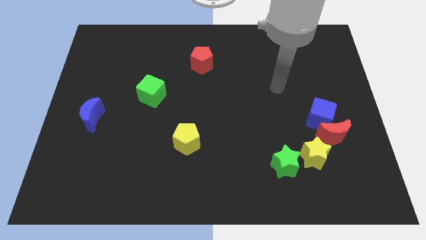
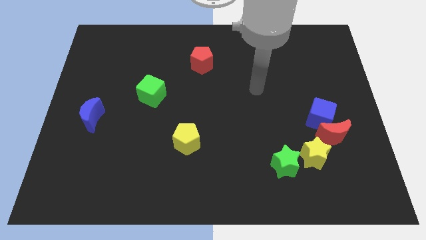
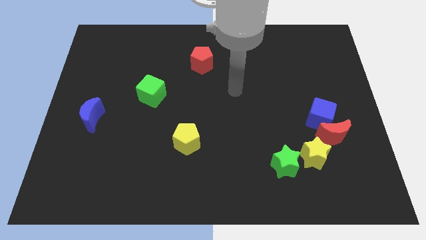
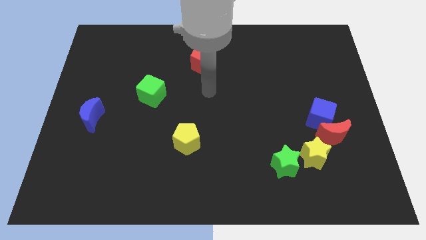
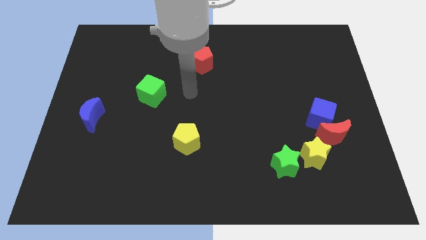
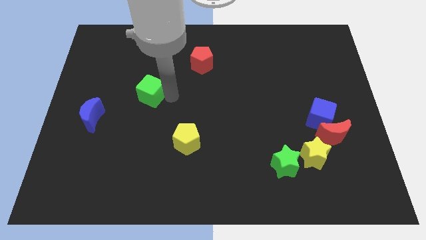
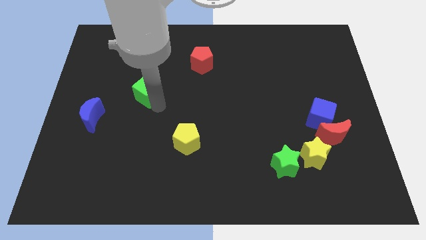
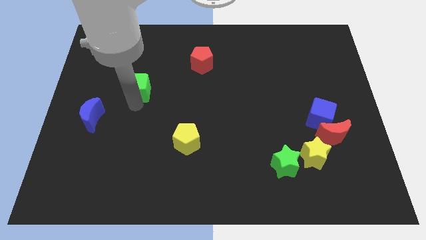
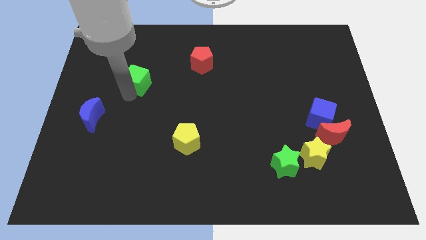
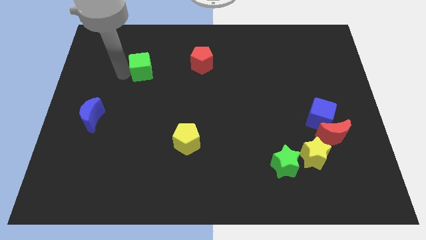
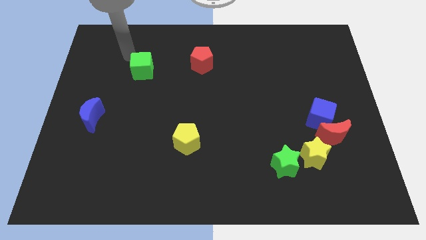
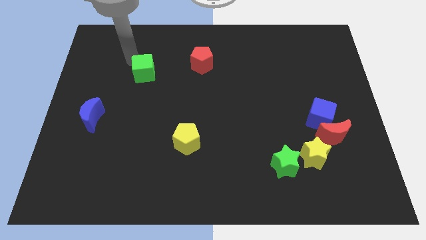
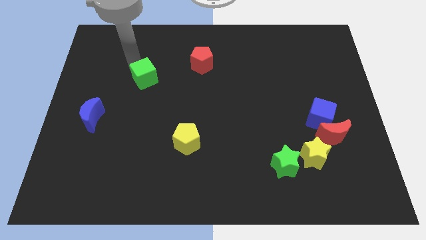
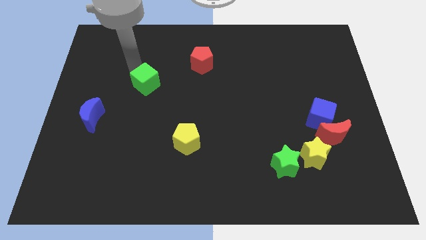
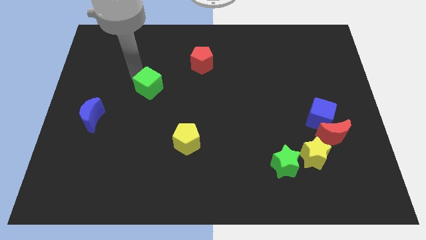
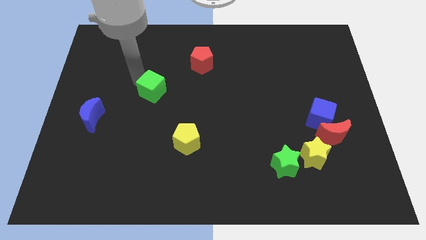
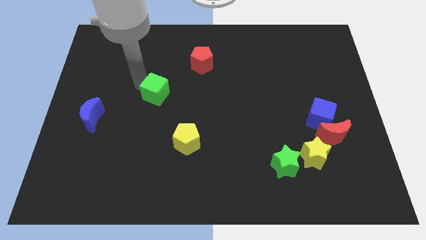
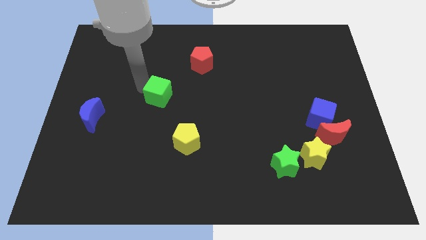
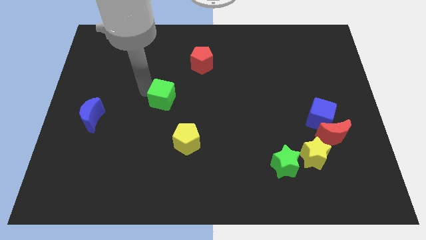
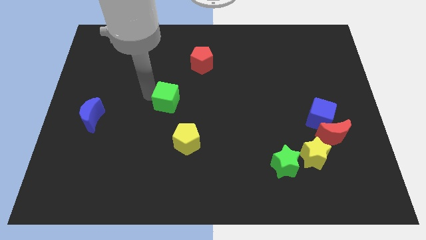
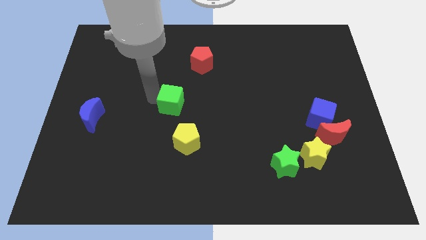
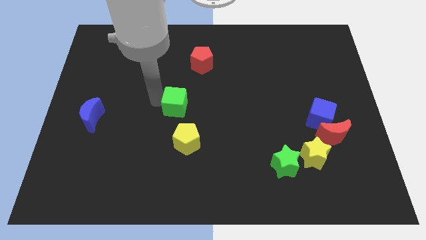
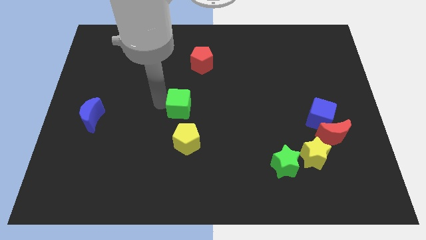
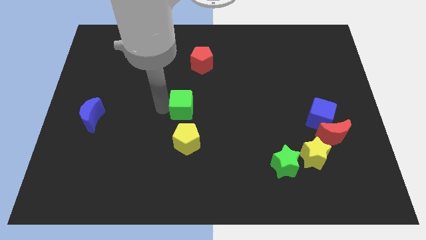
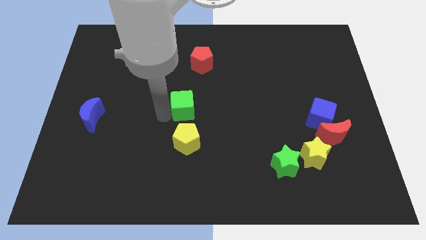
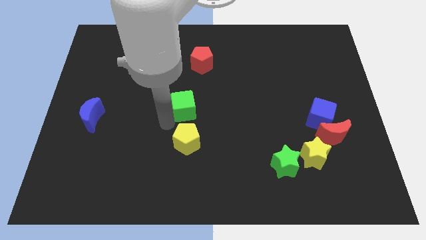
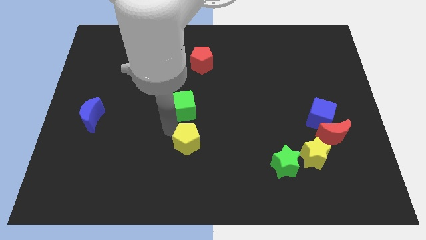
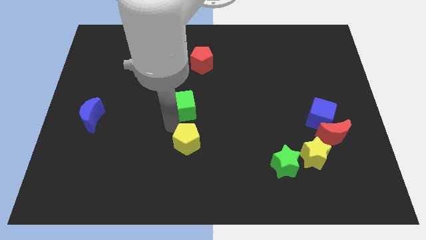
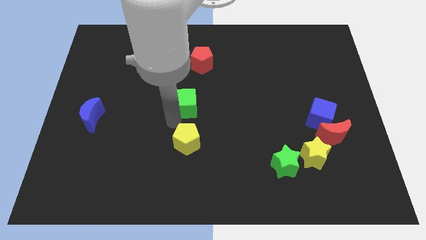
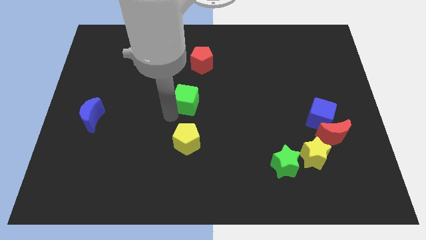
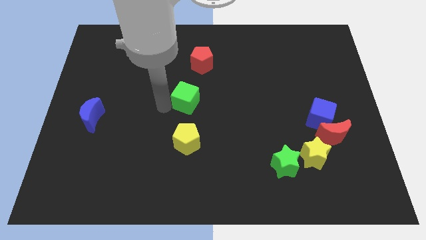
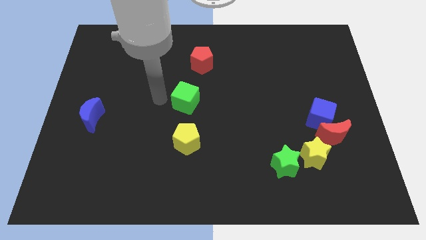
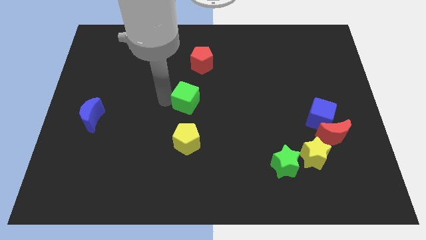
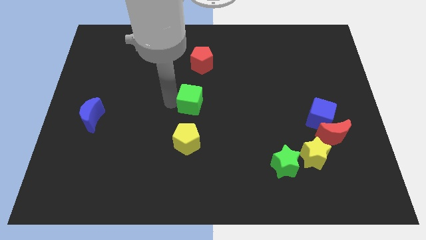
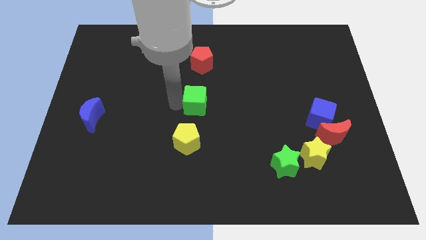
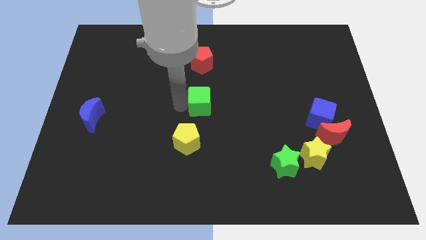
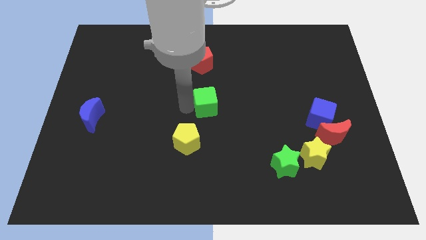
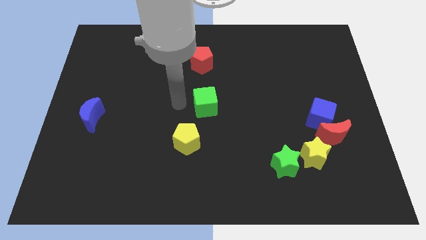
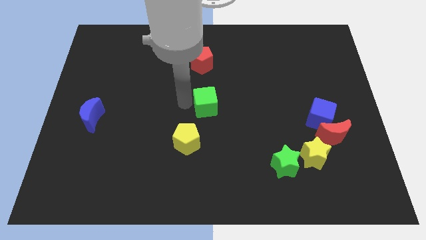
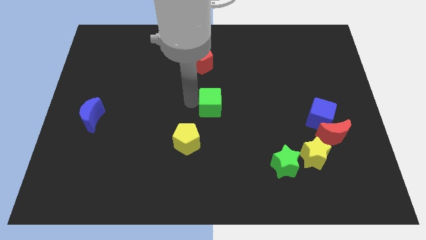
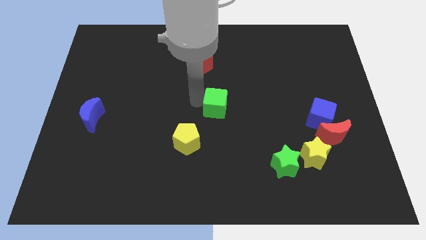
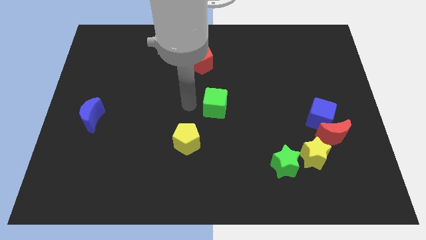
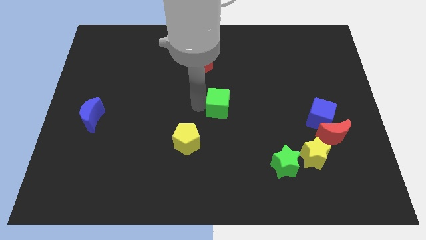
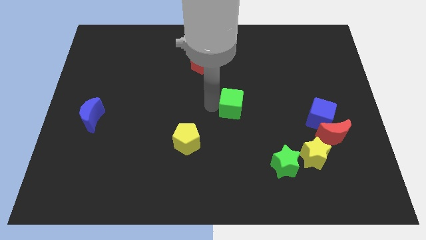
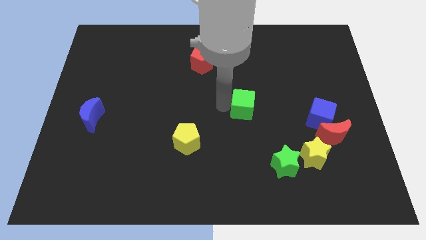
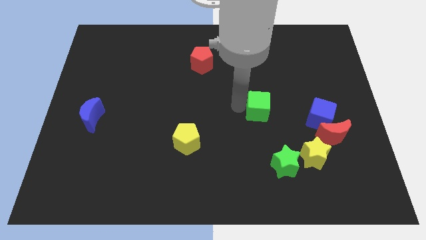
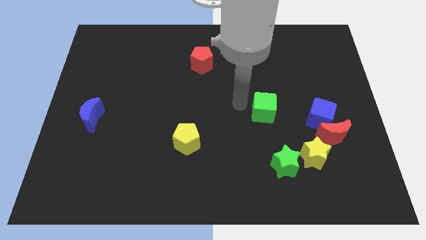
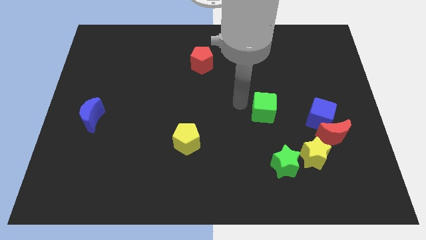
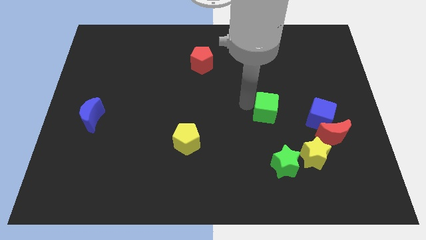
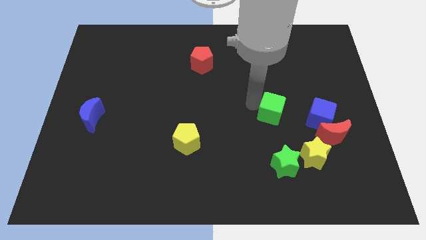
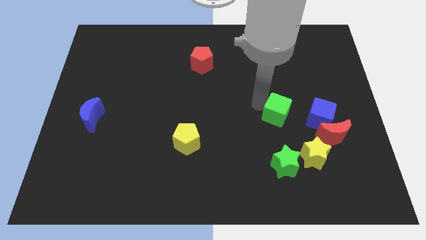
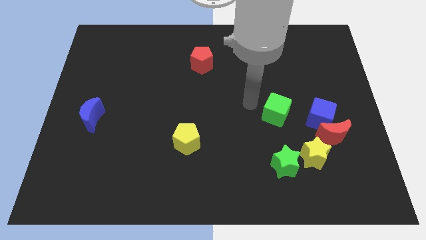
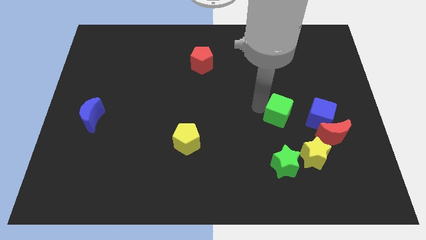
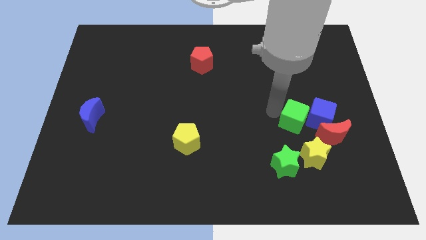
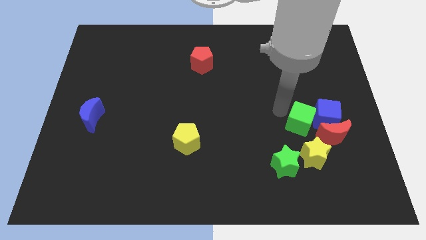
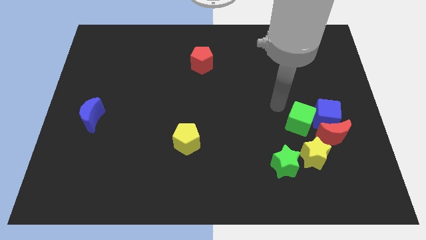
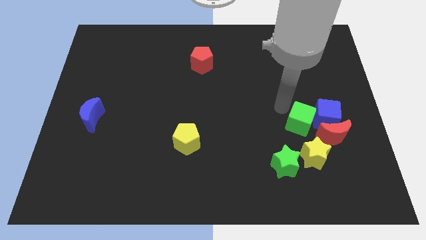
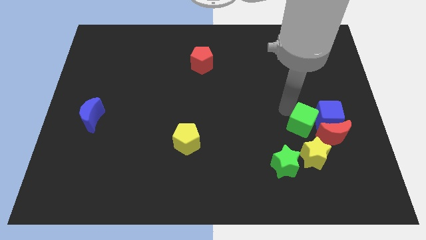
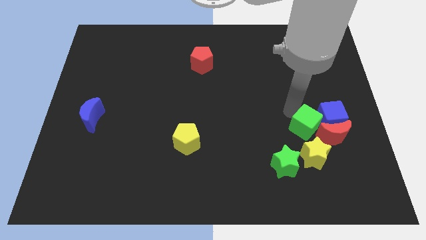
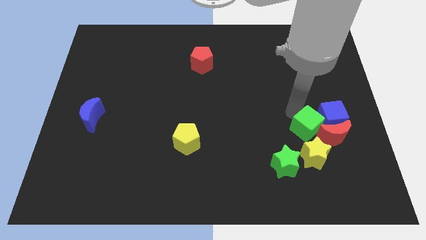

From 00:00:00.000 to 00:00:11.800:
push the green cube close to the red moon

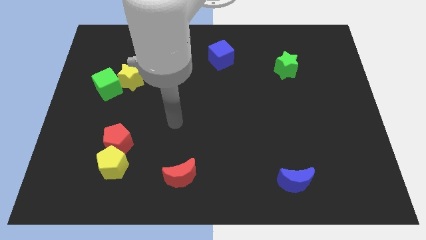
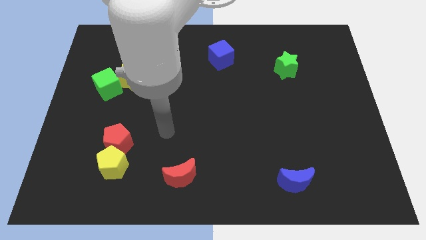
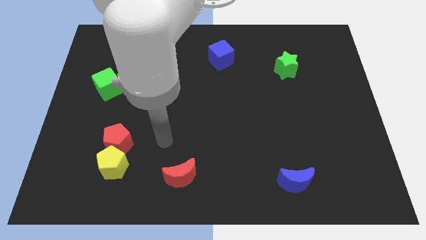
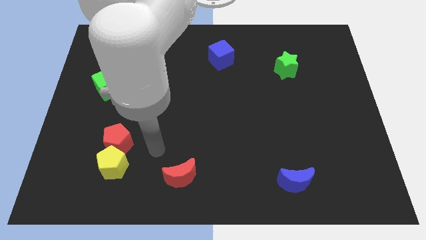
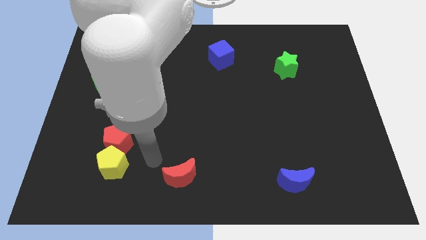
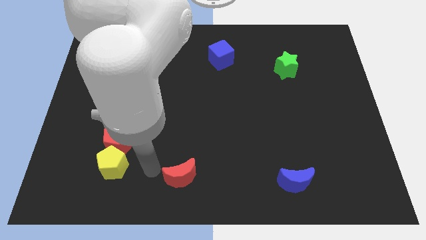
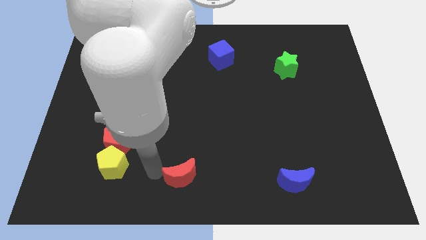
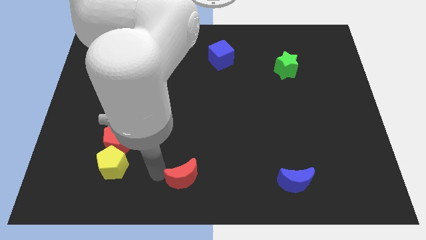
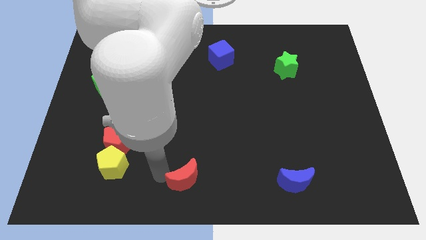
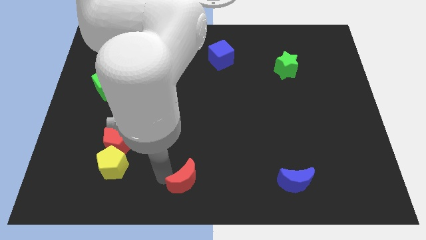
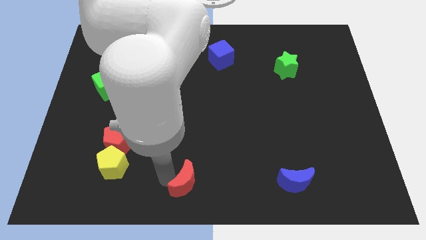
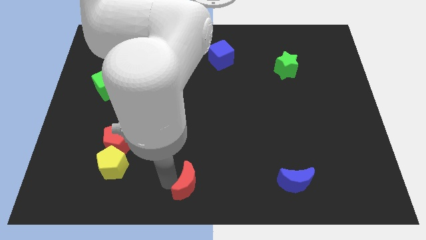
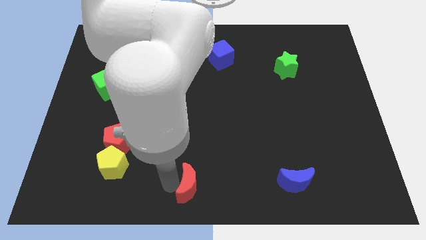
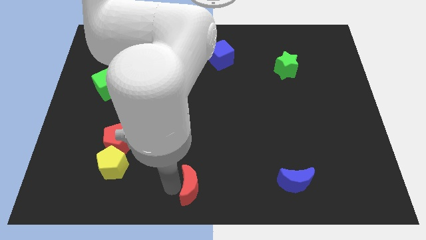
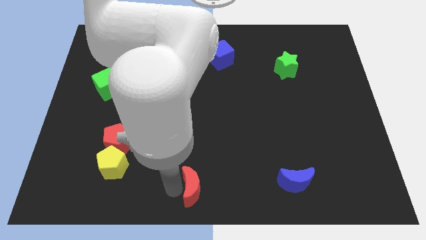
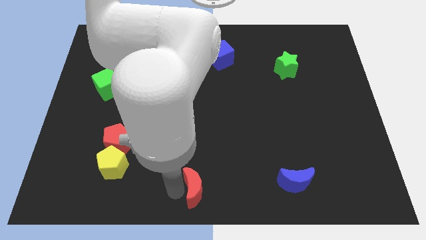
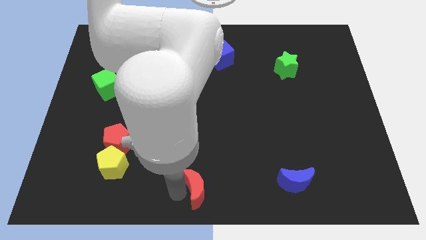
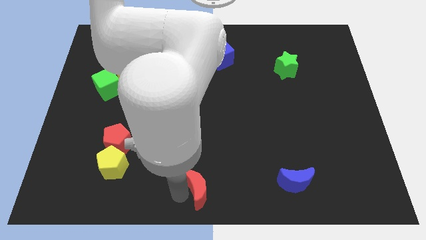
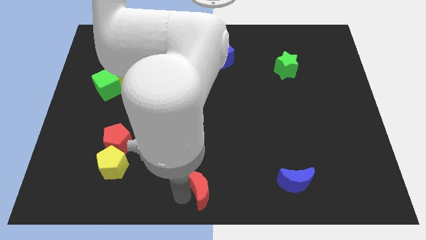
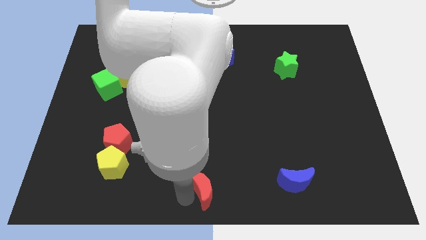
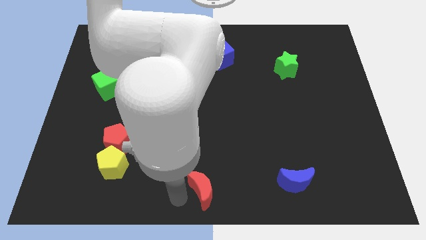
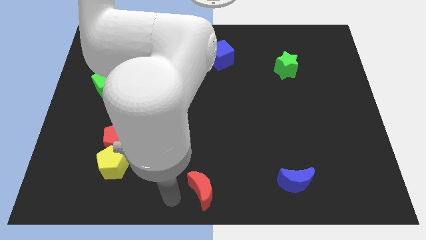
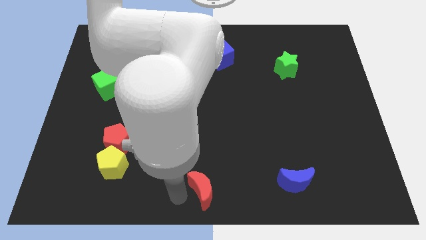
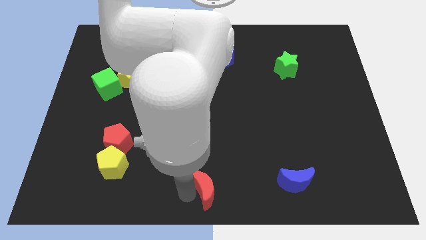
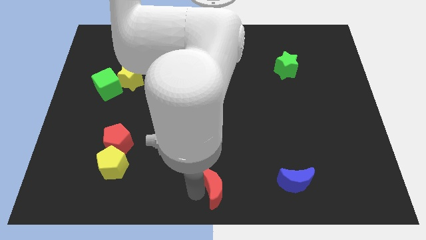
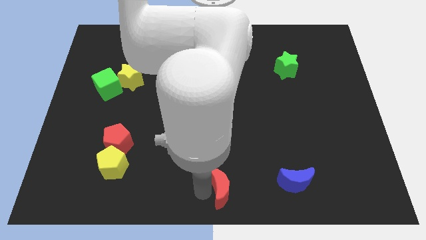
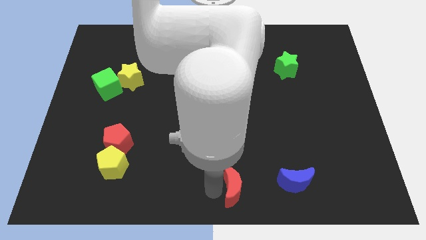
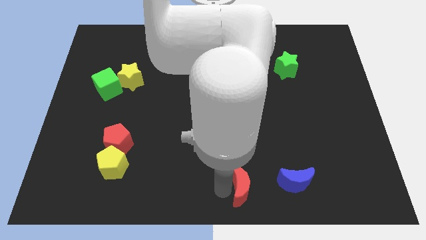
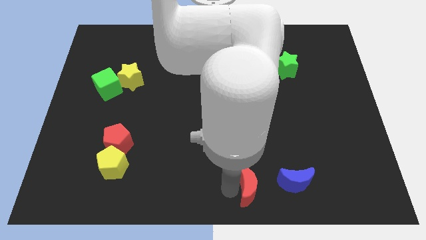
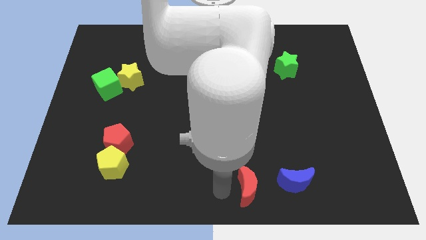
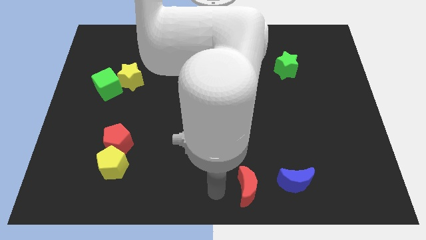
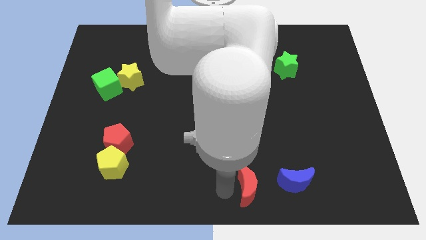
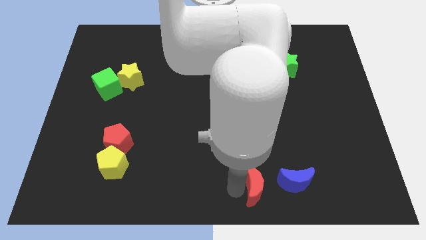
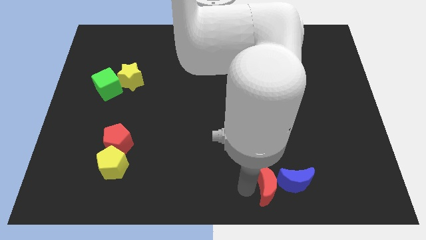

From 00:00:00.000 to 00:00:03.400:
move the red moon towards the blue moon
